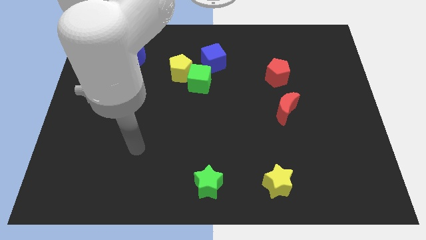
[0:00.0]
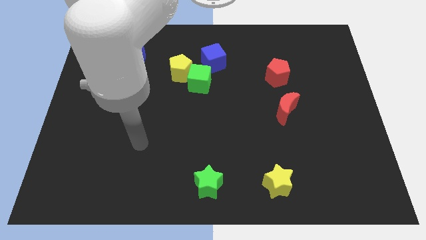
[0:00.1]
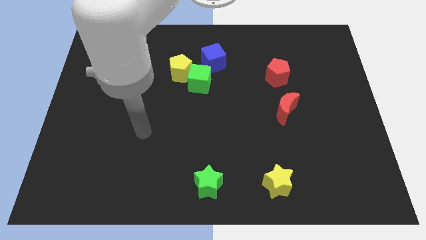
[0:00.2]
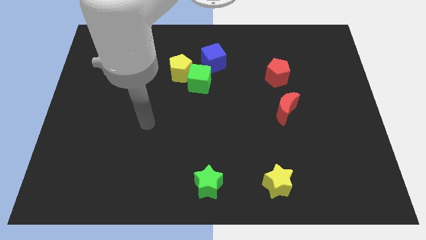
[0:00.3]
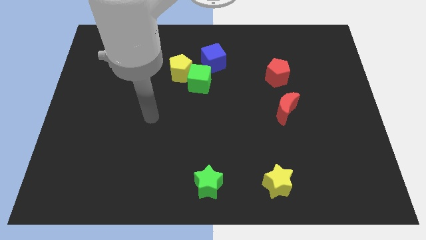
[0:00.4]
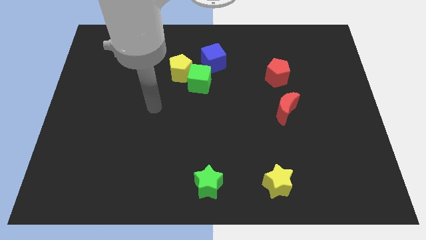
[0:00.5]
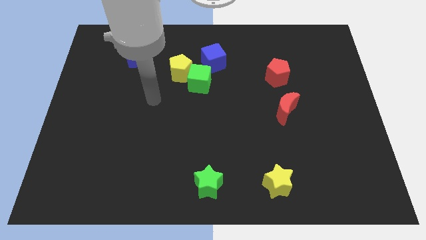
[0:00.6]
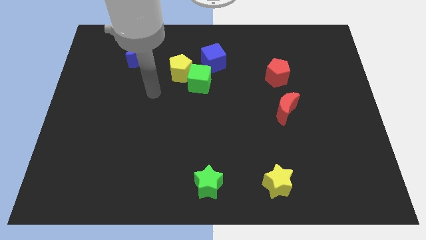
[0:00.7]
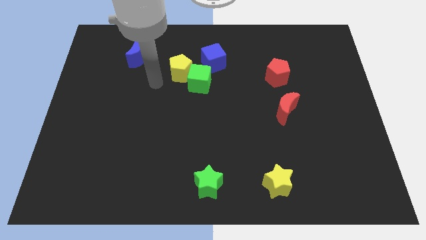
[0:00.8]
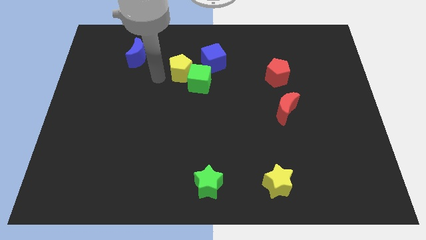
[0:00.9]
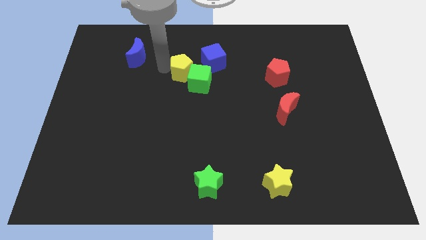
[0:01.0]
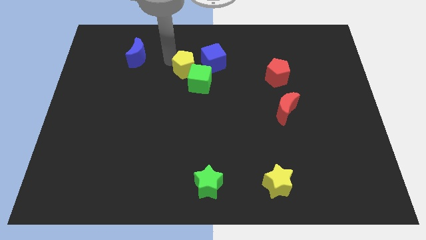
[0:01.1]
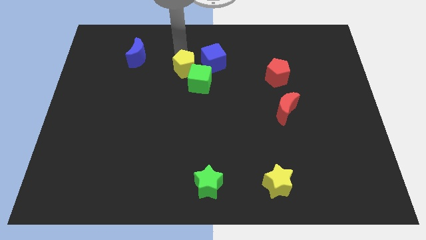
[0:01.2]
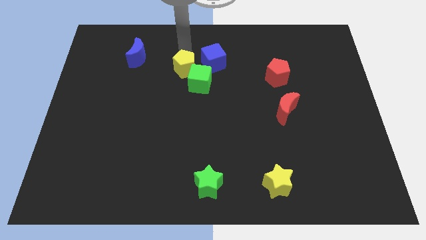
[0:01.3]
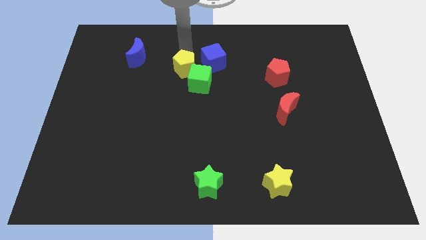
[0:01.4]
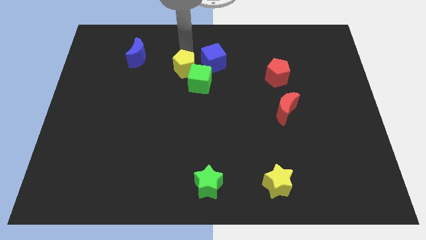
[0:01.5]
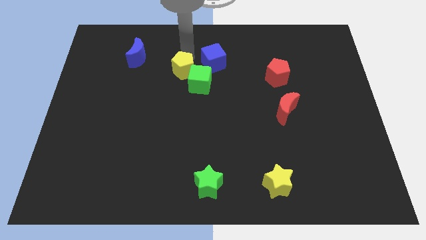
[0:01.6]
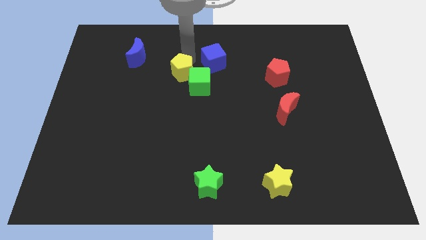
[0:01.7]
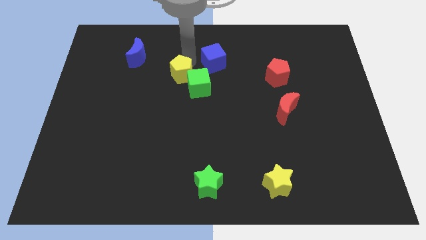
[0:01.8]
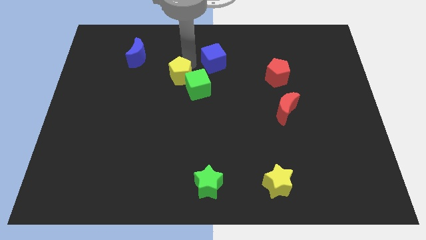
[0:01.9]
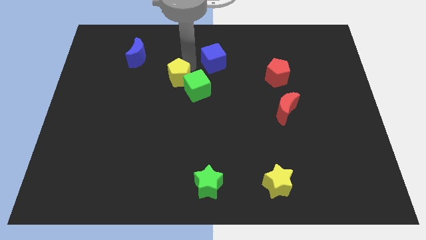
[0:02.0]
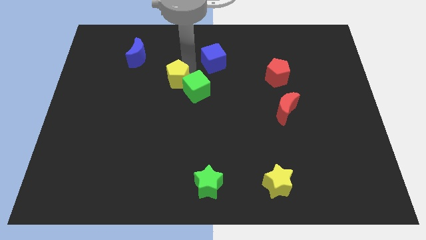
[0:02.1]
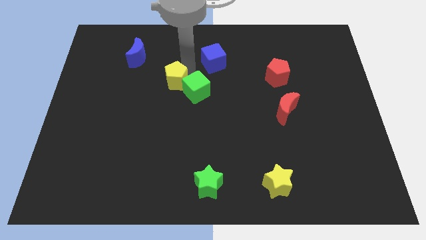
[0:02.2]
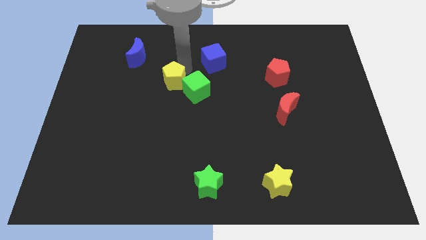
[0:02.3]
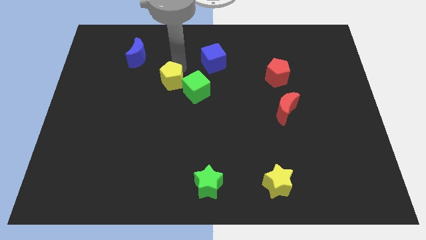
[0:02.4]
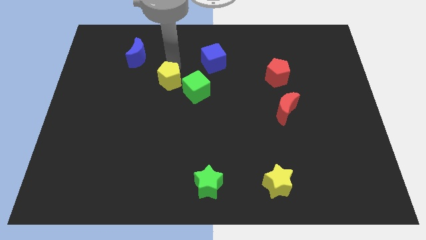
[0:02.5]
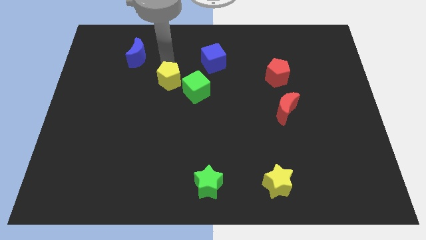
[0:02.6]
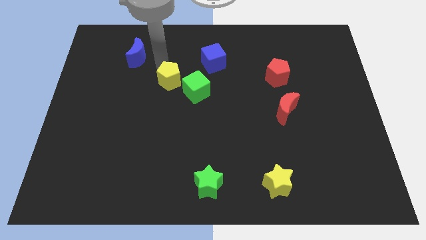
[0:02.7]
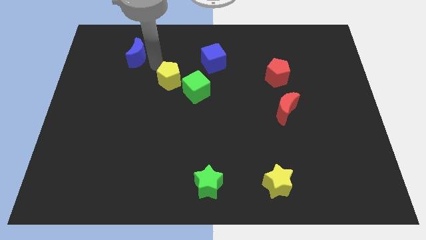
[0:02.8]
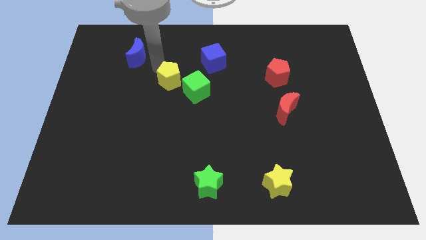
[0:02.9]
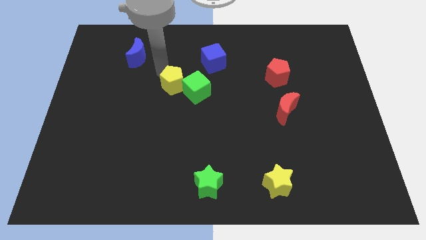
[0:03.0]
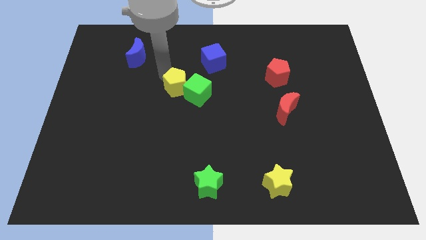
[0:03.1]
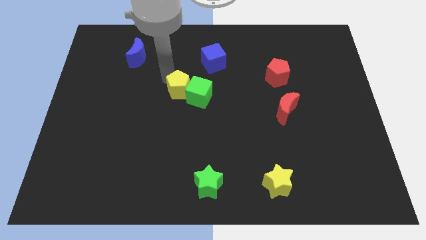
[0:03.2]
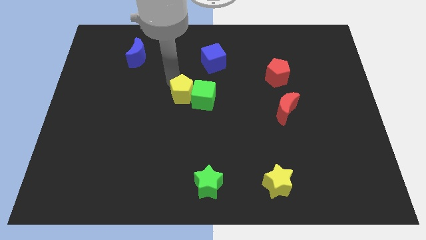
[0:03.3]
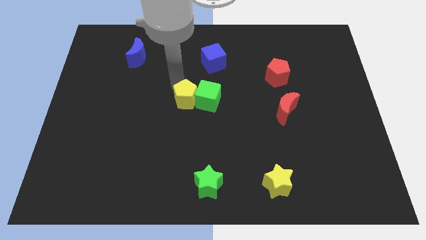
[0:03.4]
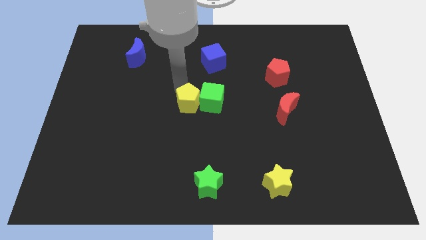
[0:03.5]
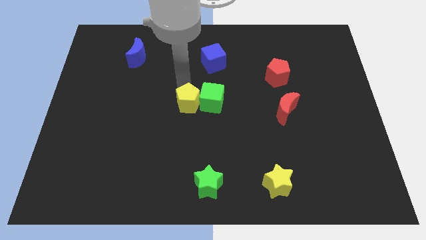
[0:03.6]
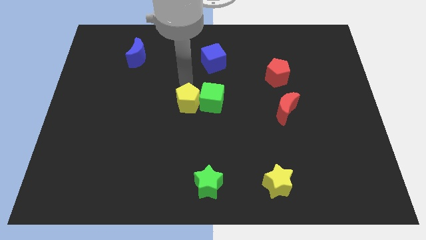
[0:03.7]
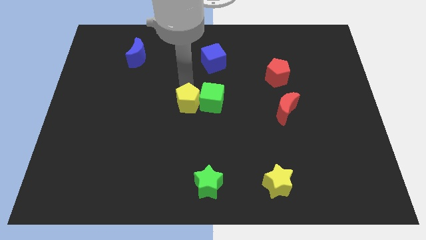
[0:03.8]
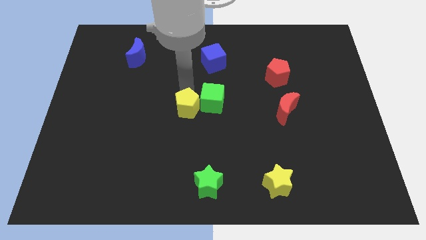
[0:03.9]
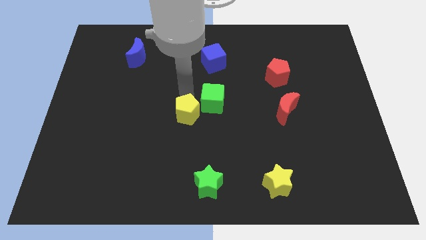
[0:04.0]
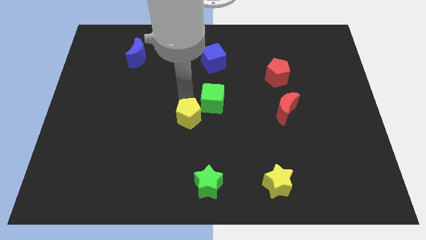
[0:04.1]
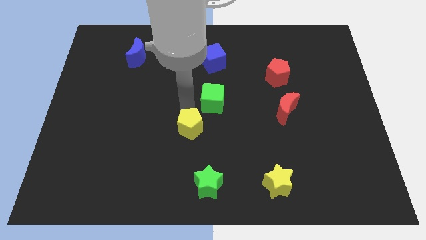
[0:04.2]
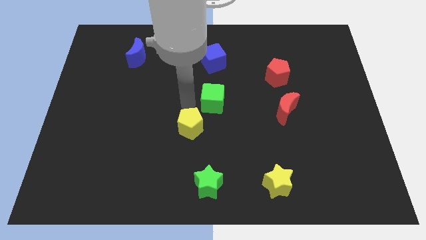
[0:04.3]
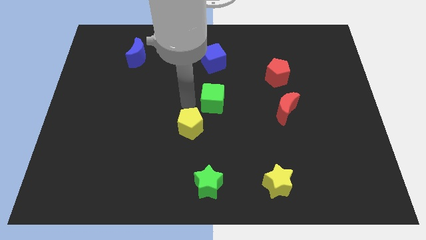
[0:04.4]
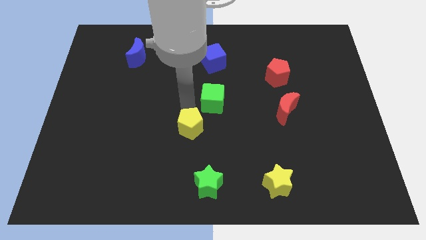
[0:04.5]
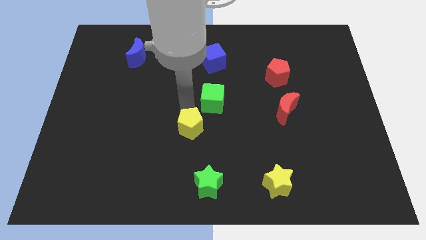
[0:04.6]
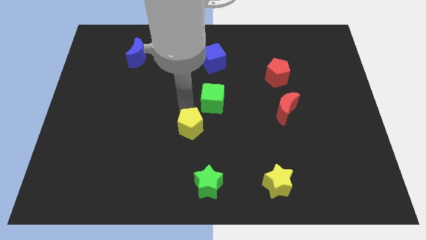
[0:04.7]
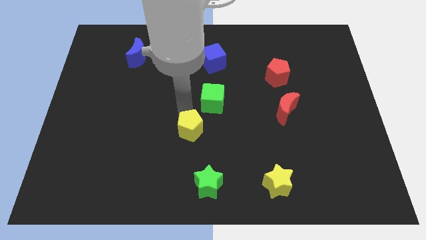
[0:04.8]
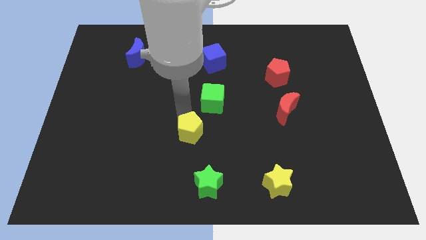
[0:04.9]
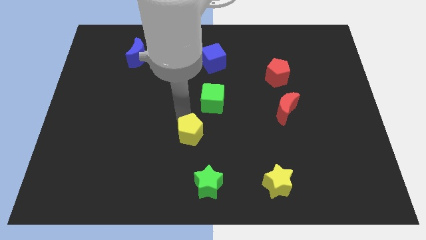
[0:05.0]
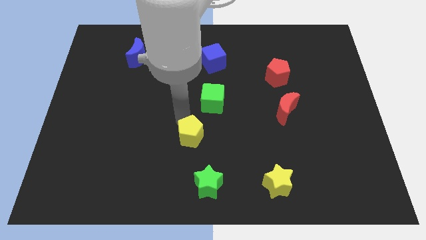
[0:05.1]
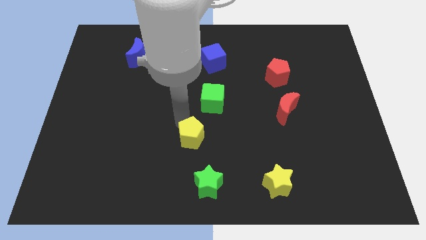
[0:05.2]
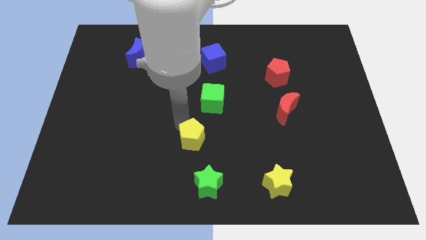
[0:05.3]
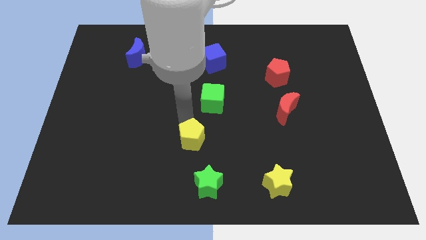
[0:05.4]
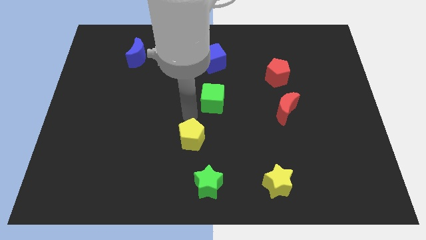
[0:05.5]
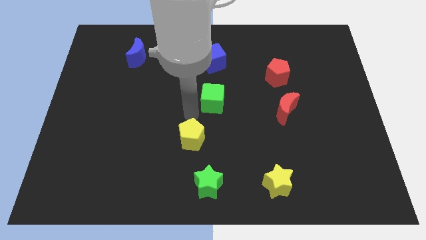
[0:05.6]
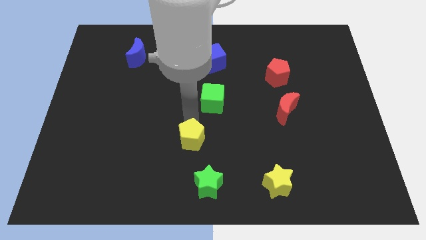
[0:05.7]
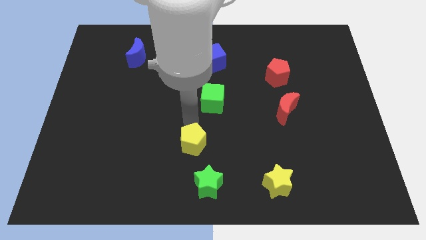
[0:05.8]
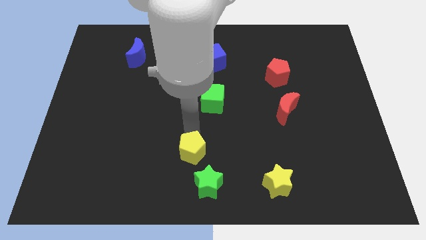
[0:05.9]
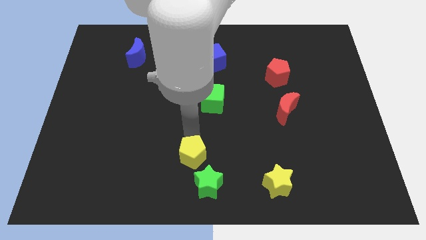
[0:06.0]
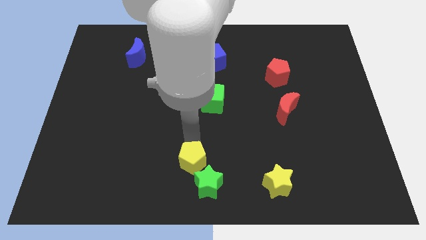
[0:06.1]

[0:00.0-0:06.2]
slide the yellow pentagon to the bottom
